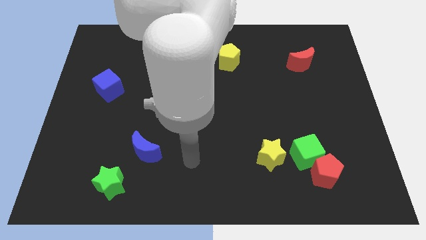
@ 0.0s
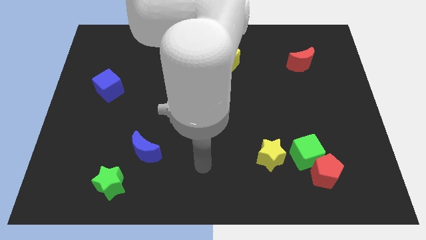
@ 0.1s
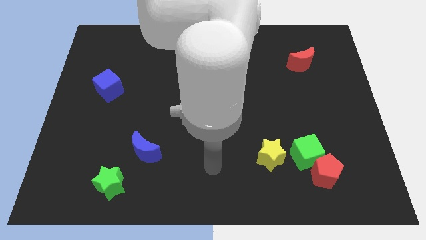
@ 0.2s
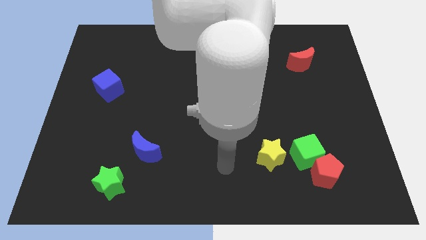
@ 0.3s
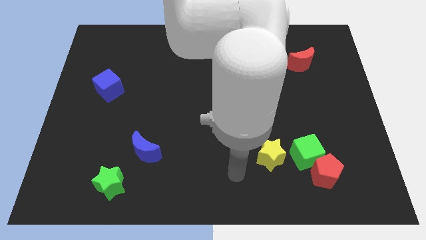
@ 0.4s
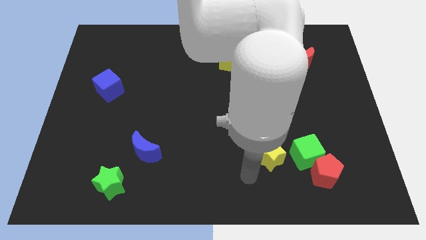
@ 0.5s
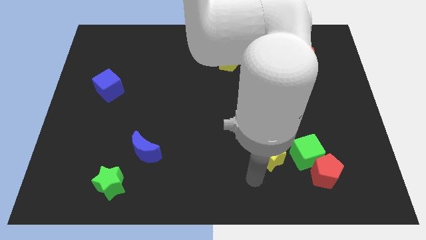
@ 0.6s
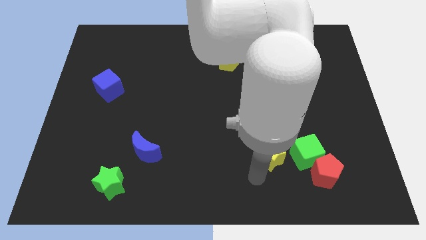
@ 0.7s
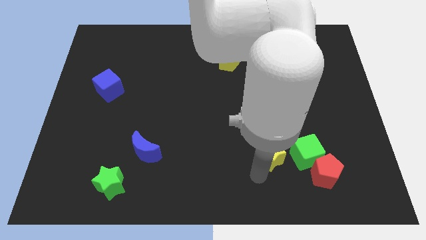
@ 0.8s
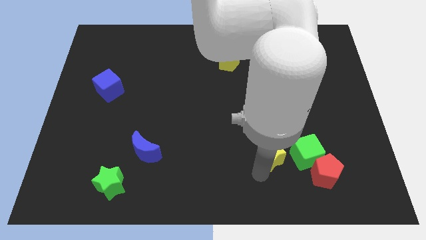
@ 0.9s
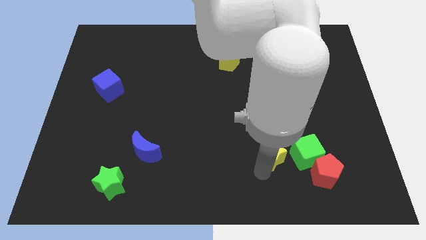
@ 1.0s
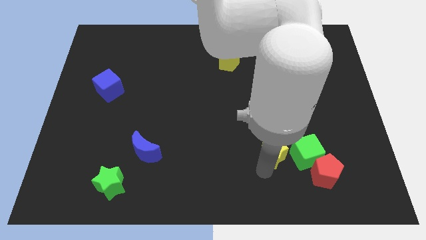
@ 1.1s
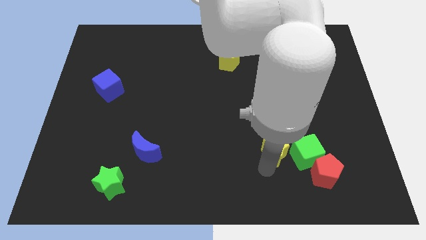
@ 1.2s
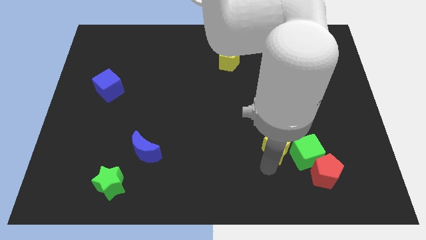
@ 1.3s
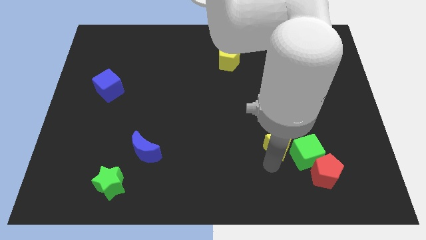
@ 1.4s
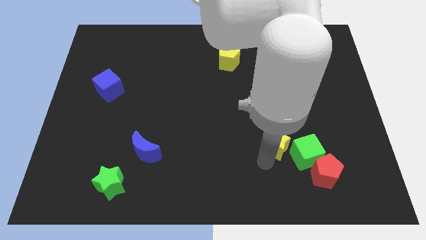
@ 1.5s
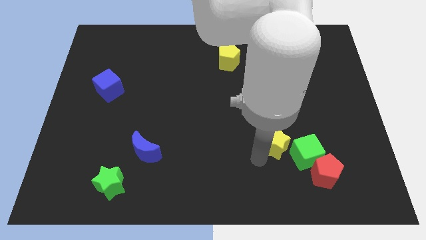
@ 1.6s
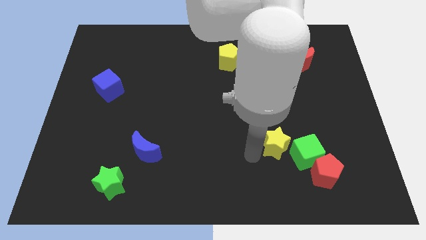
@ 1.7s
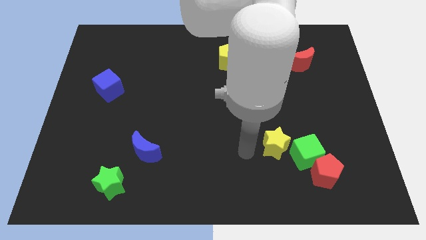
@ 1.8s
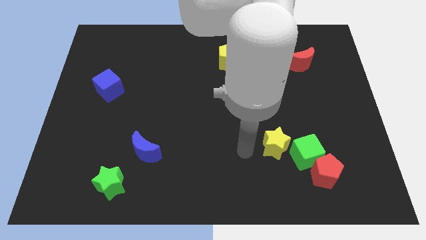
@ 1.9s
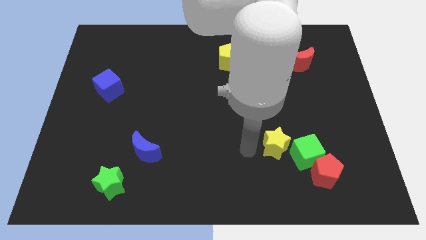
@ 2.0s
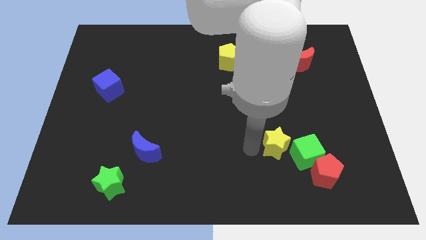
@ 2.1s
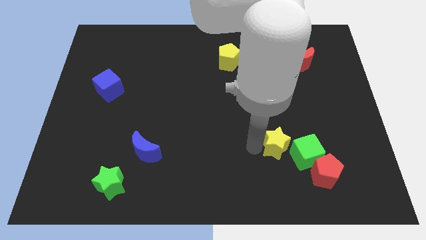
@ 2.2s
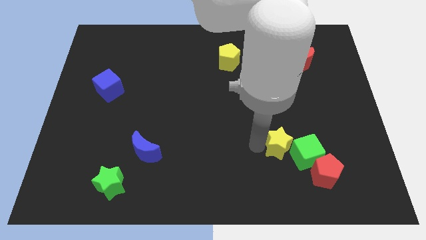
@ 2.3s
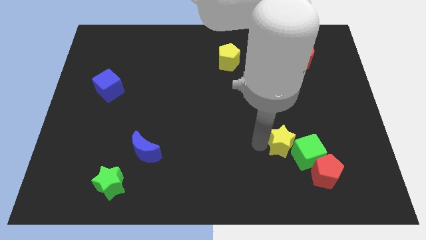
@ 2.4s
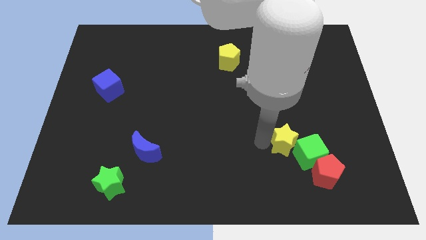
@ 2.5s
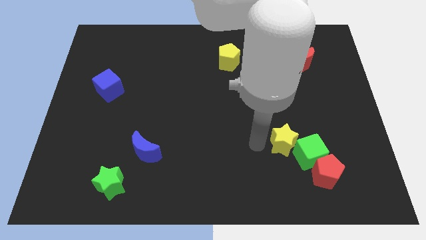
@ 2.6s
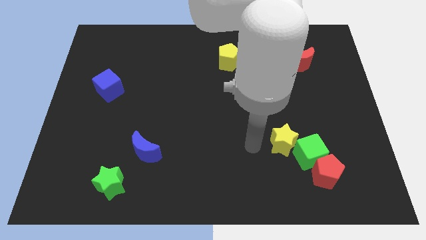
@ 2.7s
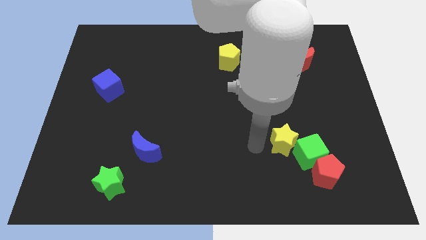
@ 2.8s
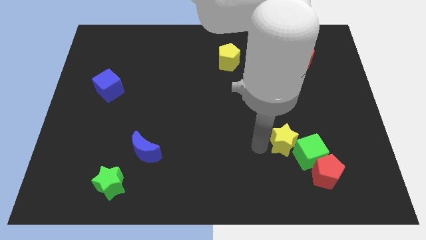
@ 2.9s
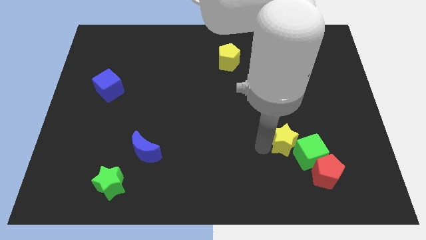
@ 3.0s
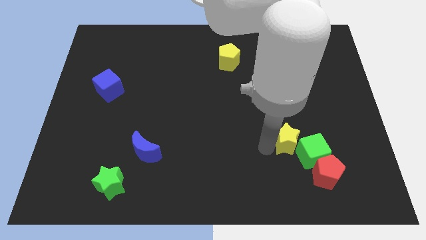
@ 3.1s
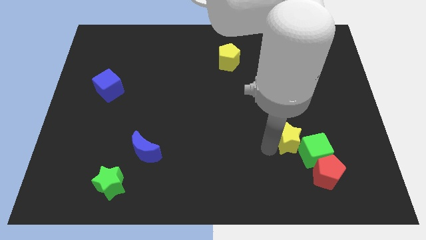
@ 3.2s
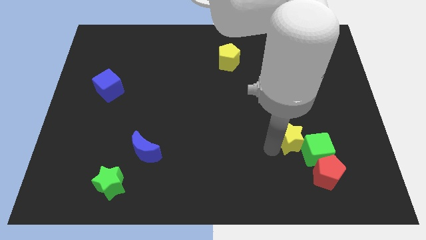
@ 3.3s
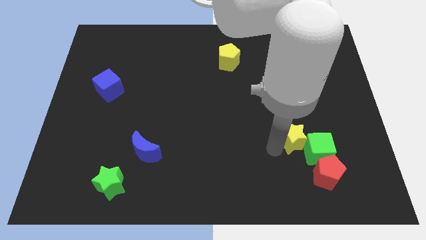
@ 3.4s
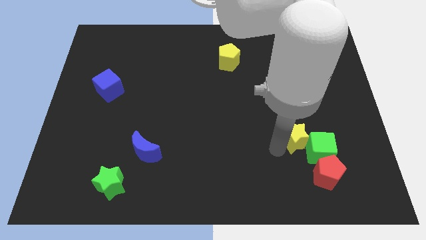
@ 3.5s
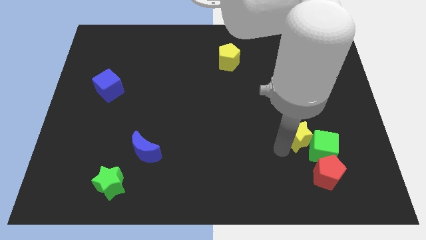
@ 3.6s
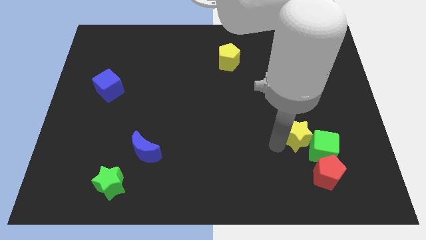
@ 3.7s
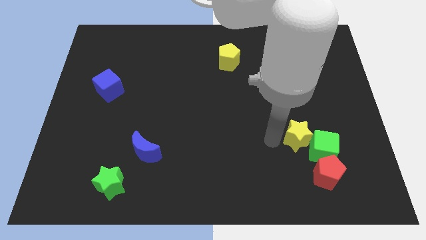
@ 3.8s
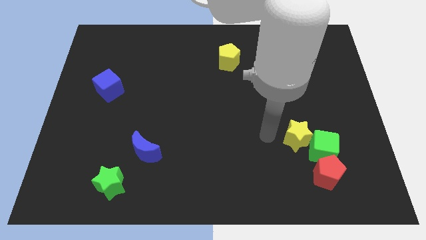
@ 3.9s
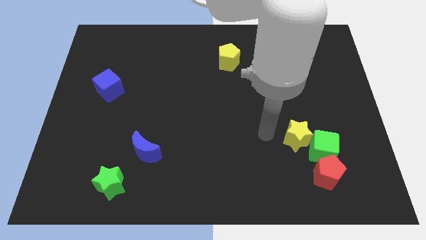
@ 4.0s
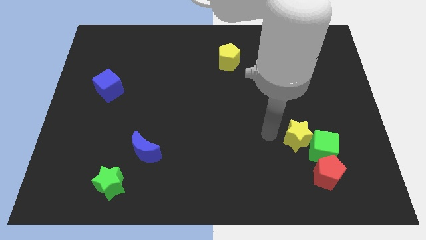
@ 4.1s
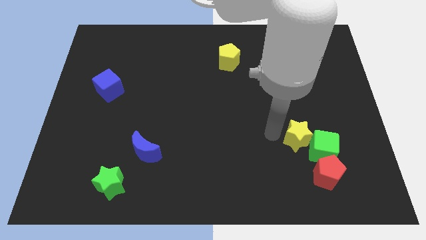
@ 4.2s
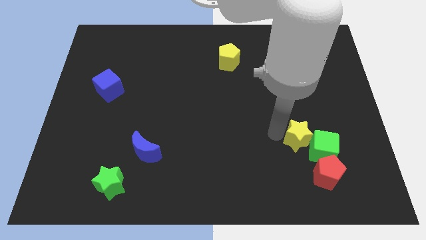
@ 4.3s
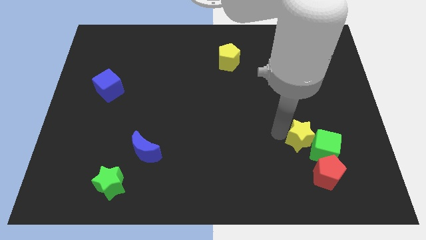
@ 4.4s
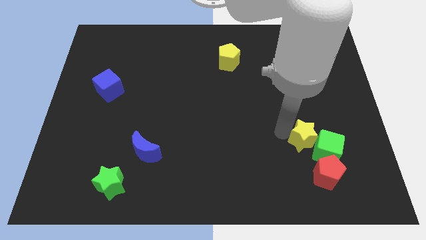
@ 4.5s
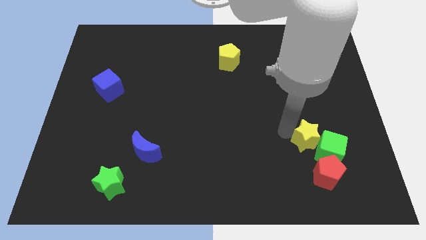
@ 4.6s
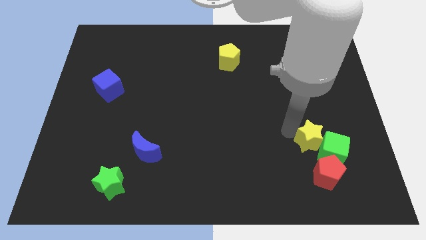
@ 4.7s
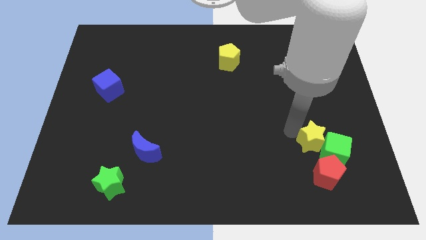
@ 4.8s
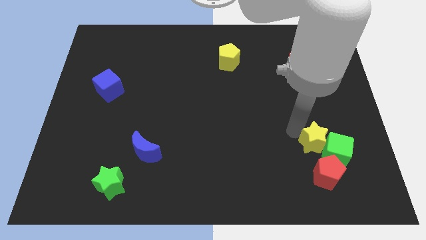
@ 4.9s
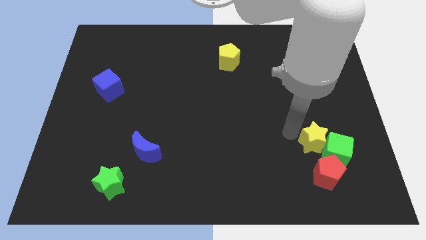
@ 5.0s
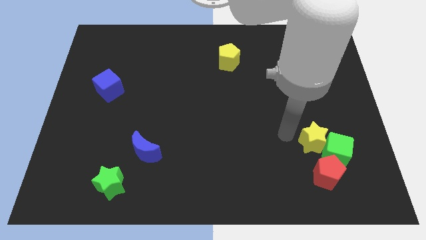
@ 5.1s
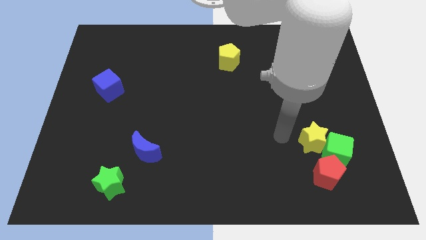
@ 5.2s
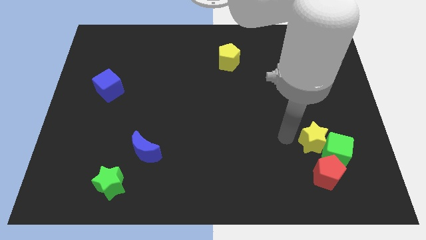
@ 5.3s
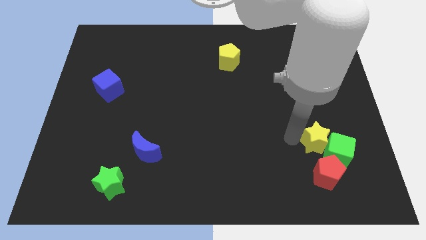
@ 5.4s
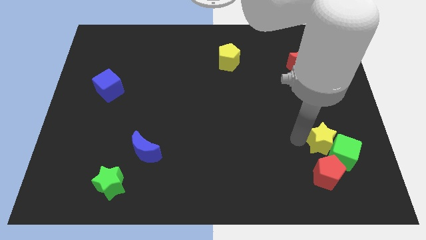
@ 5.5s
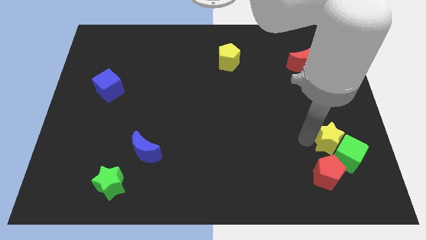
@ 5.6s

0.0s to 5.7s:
push the yellow star to the top right of the red pentagon

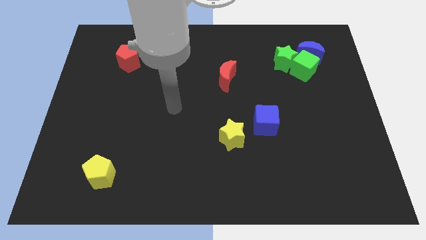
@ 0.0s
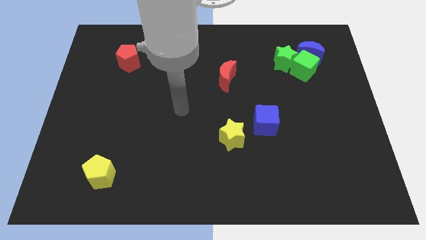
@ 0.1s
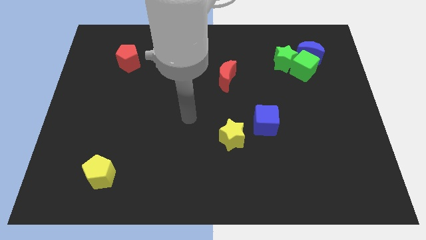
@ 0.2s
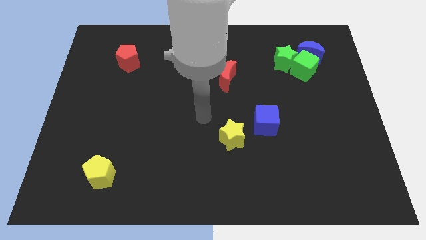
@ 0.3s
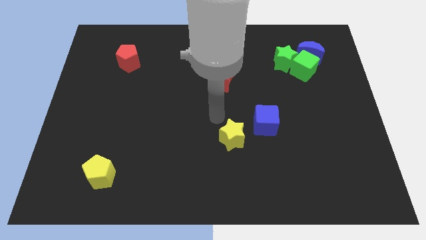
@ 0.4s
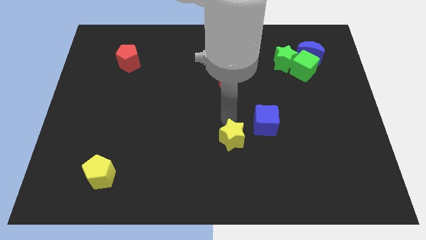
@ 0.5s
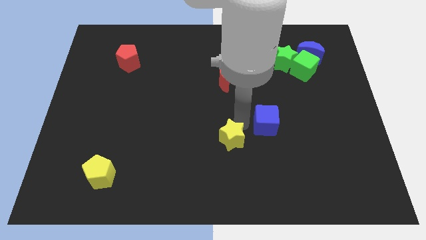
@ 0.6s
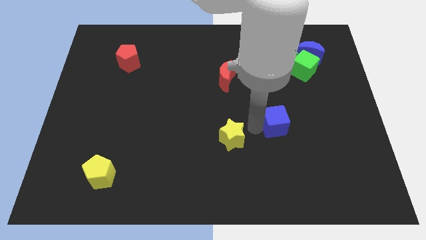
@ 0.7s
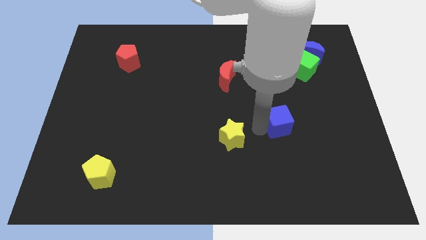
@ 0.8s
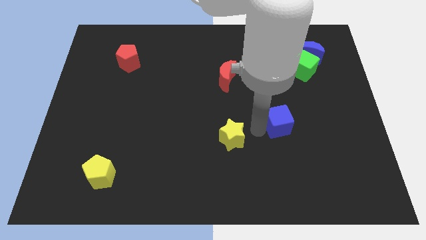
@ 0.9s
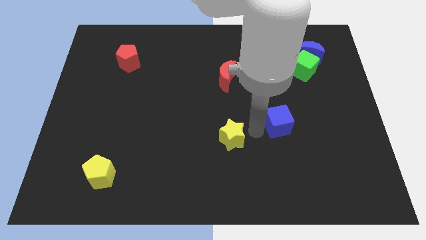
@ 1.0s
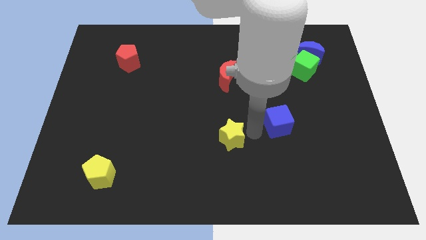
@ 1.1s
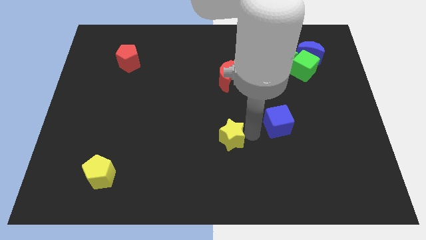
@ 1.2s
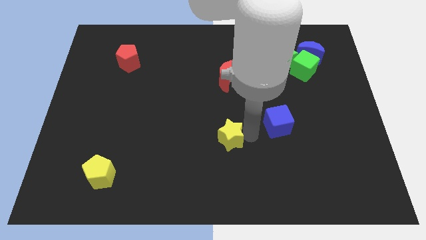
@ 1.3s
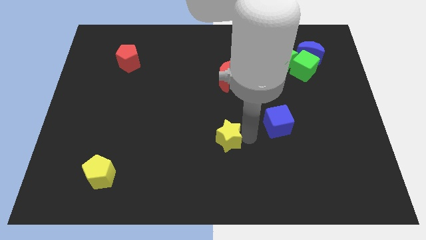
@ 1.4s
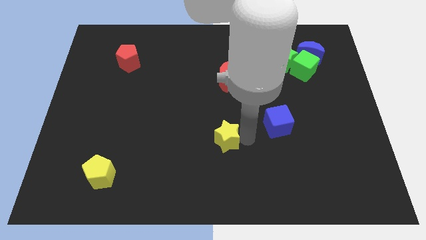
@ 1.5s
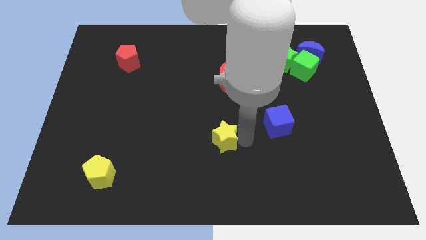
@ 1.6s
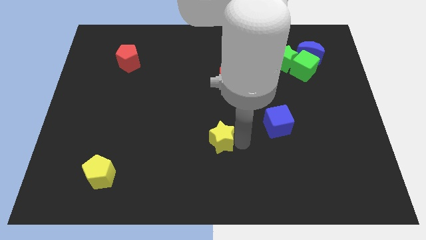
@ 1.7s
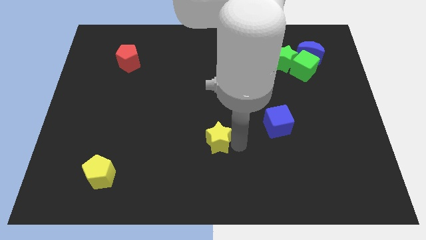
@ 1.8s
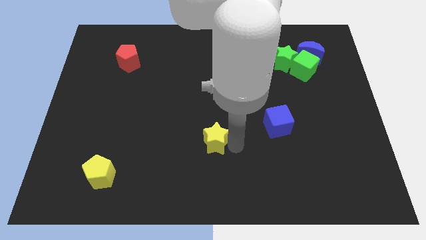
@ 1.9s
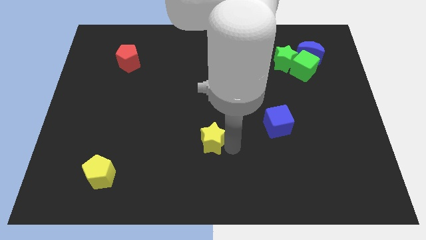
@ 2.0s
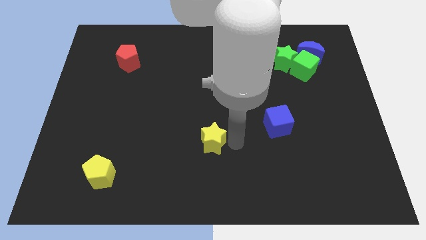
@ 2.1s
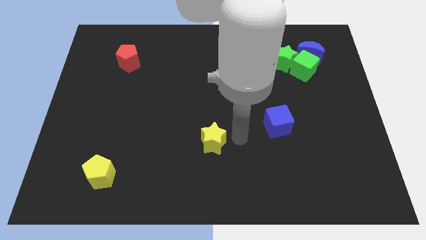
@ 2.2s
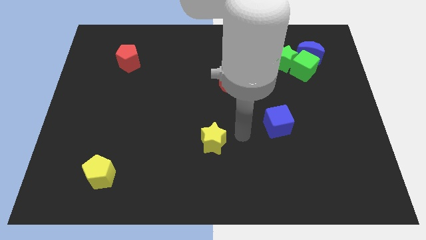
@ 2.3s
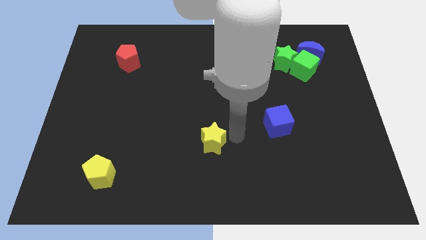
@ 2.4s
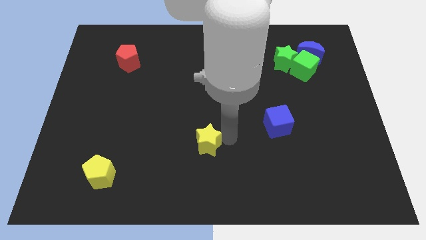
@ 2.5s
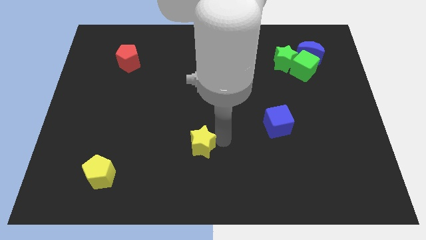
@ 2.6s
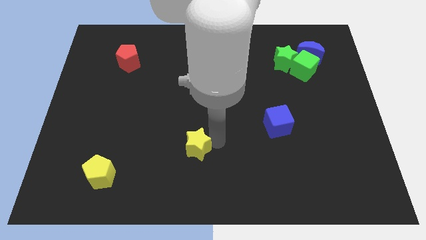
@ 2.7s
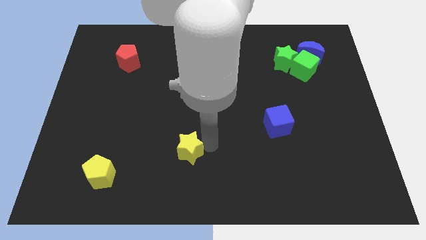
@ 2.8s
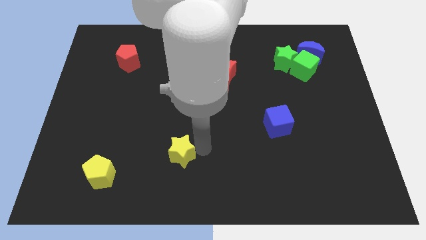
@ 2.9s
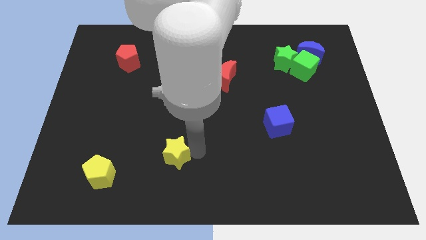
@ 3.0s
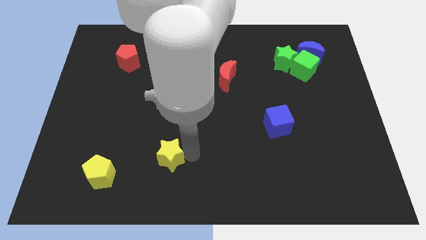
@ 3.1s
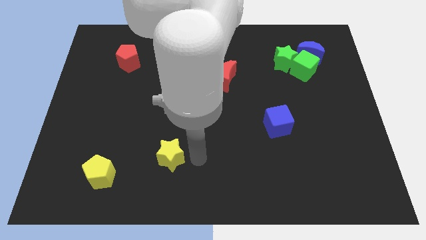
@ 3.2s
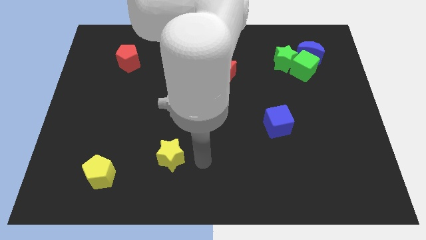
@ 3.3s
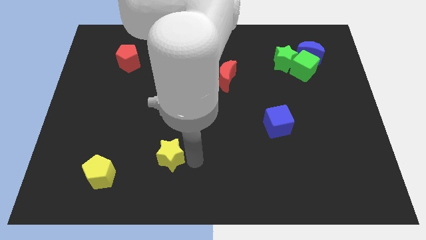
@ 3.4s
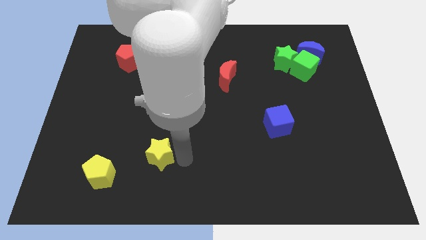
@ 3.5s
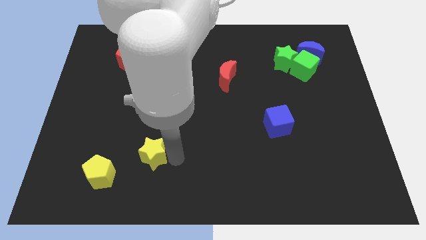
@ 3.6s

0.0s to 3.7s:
slide the yellow star to the top right of the yellow pentagon
